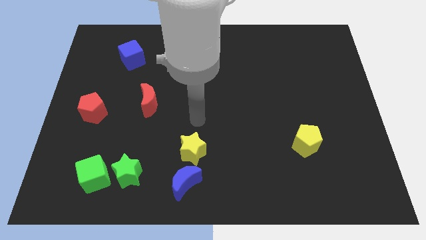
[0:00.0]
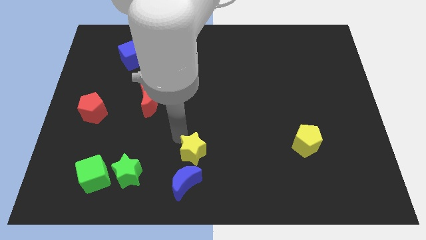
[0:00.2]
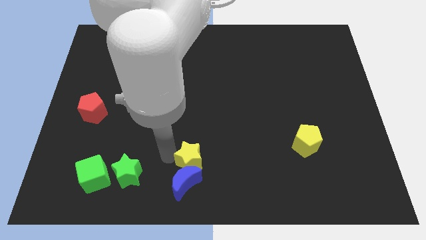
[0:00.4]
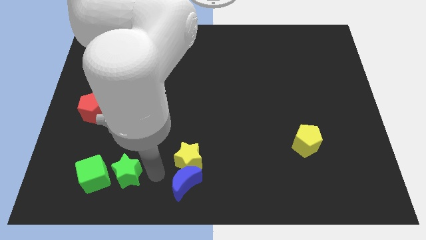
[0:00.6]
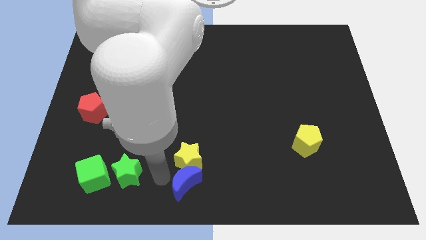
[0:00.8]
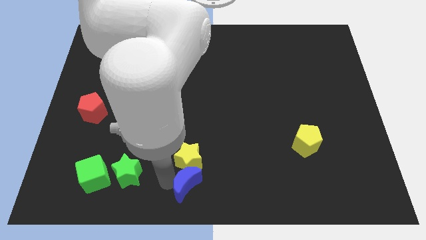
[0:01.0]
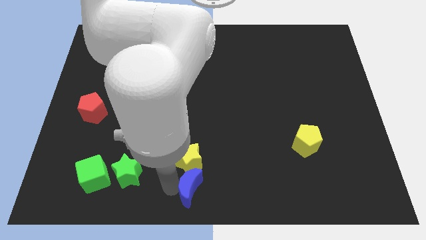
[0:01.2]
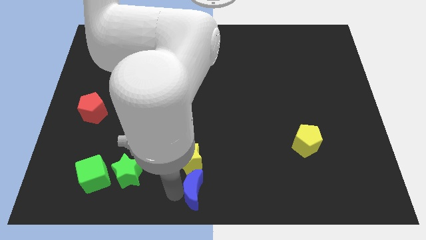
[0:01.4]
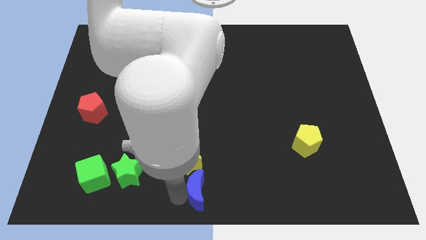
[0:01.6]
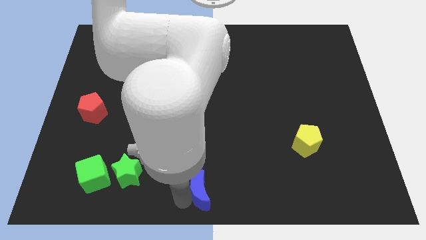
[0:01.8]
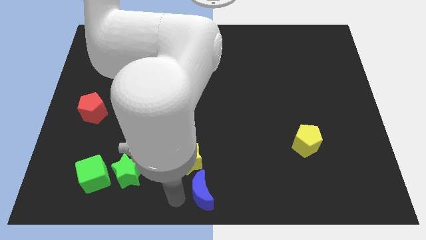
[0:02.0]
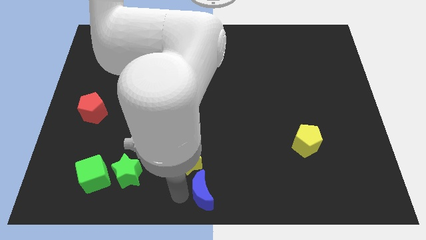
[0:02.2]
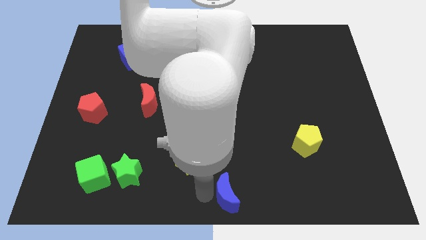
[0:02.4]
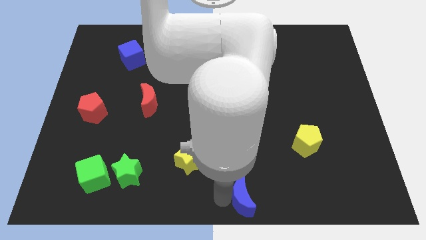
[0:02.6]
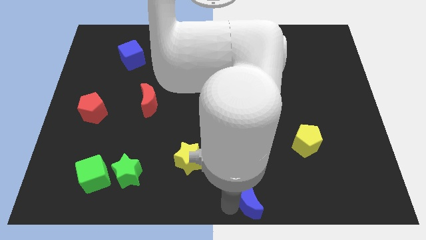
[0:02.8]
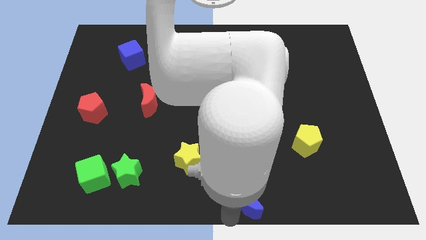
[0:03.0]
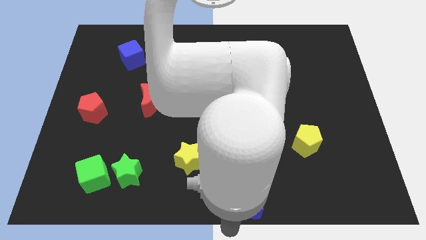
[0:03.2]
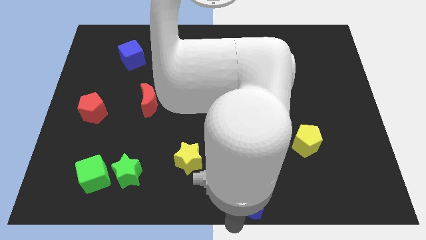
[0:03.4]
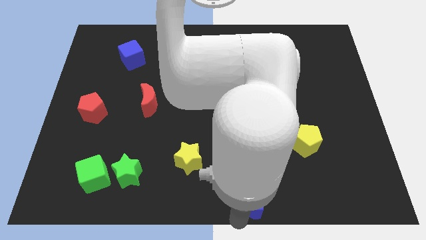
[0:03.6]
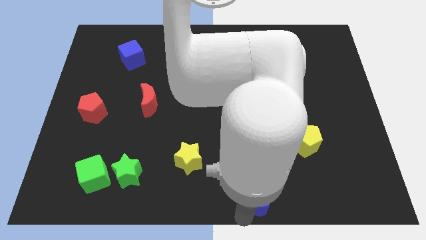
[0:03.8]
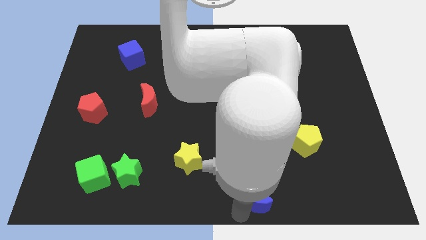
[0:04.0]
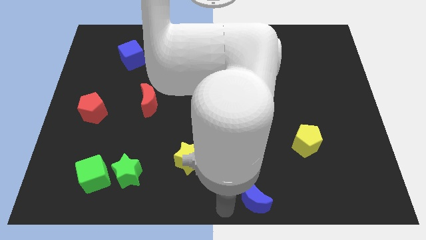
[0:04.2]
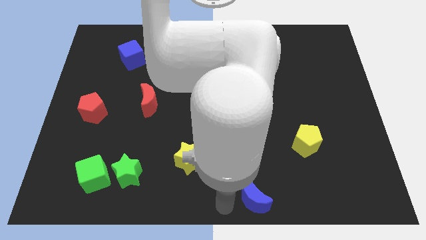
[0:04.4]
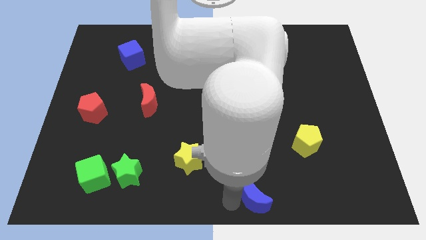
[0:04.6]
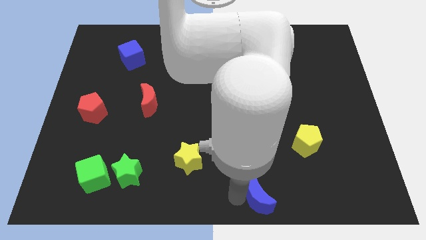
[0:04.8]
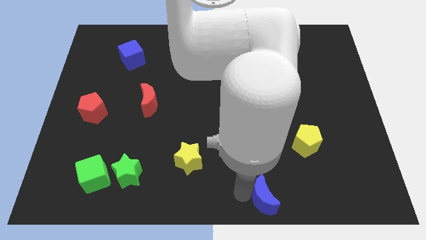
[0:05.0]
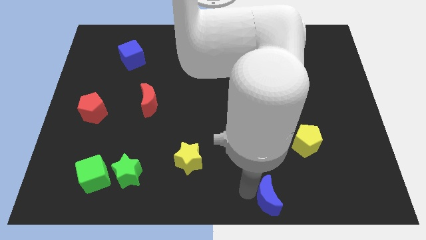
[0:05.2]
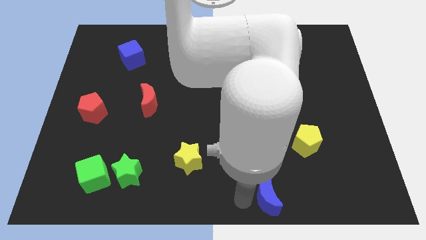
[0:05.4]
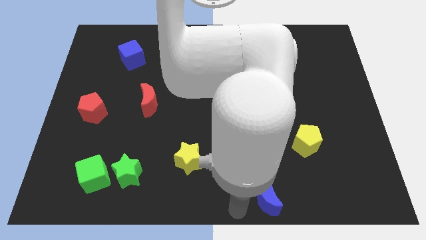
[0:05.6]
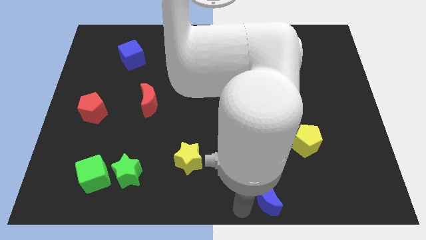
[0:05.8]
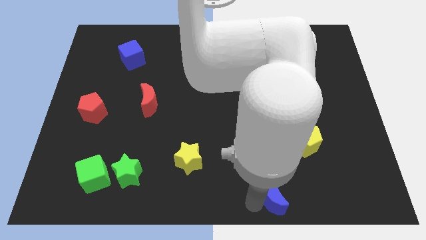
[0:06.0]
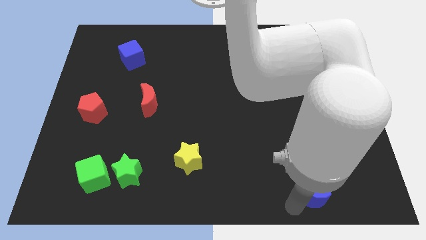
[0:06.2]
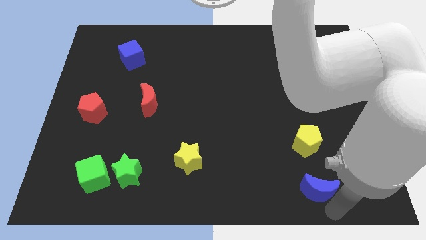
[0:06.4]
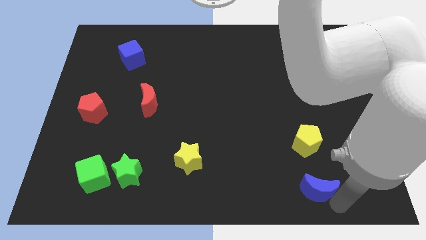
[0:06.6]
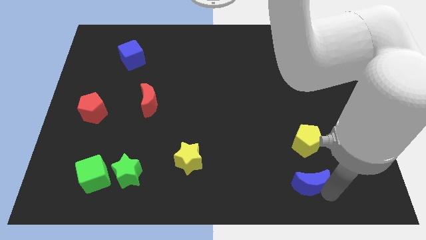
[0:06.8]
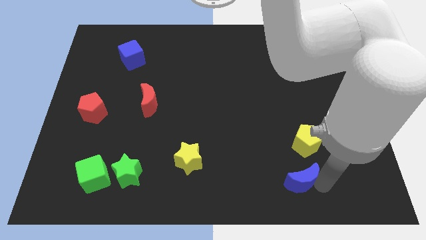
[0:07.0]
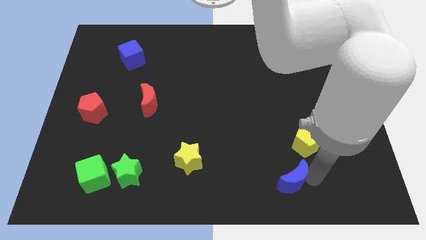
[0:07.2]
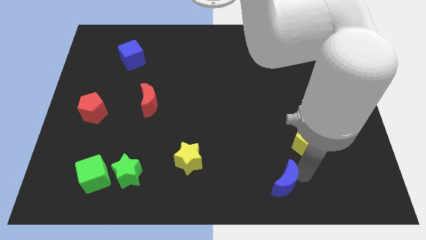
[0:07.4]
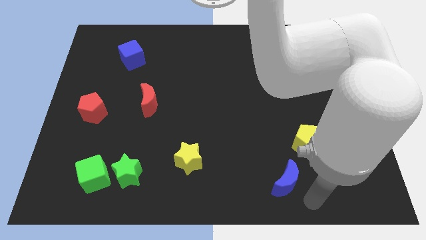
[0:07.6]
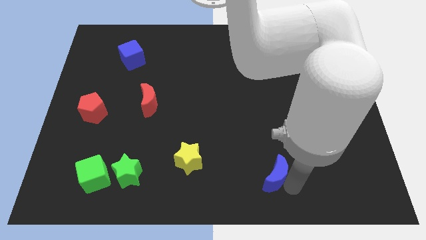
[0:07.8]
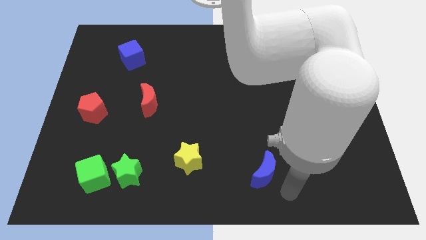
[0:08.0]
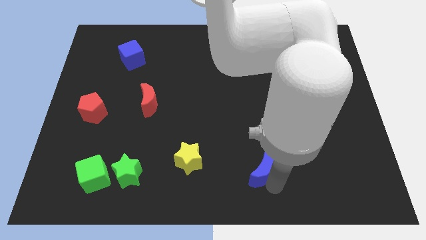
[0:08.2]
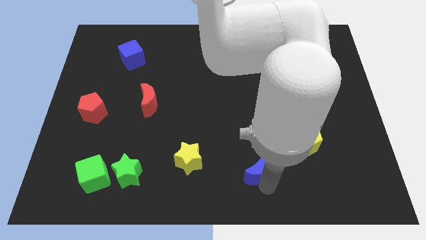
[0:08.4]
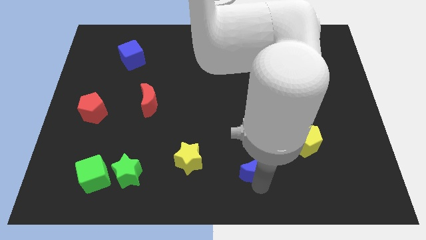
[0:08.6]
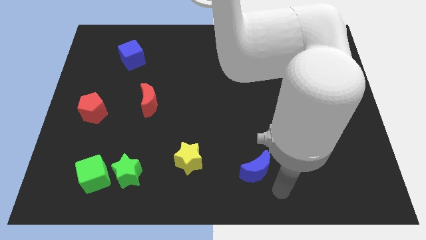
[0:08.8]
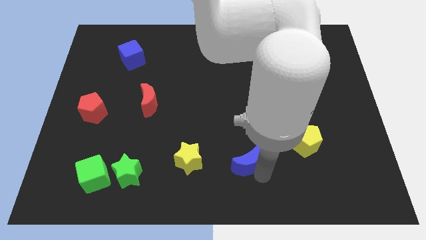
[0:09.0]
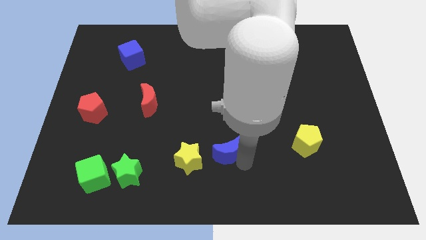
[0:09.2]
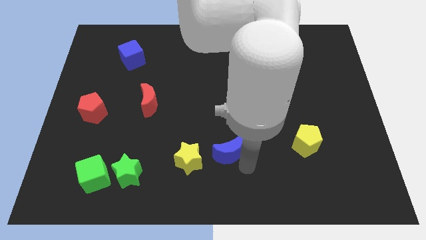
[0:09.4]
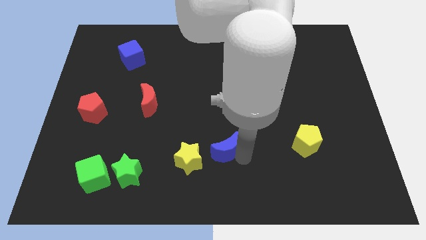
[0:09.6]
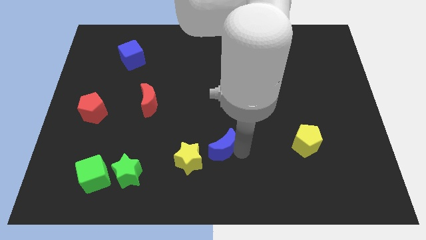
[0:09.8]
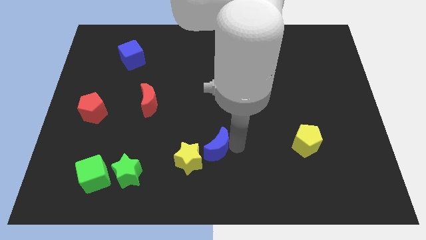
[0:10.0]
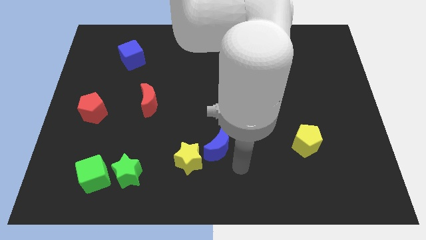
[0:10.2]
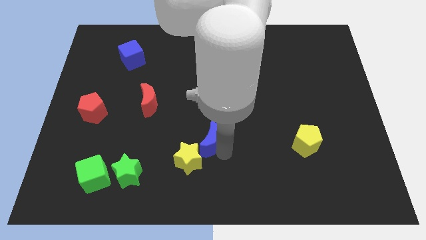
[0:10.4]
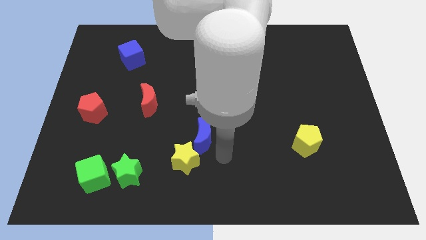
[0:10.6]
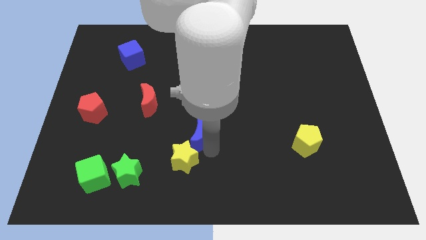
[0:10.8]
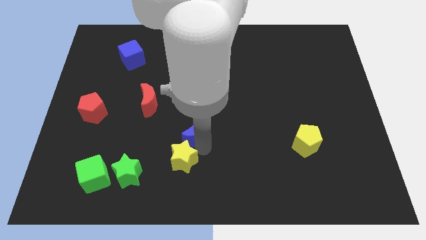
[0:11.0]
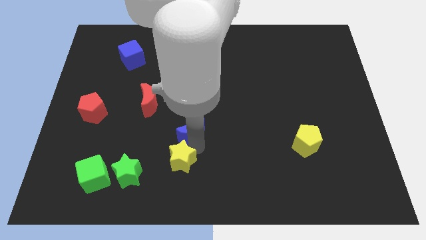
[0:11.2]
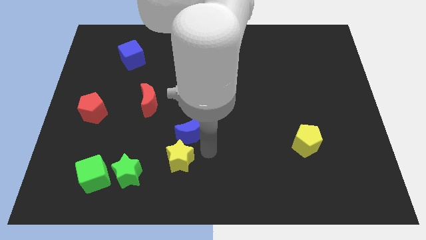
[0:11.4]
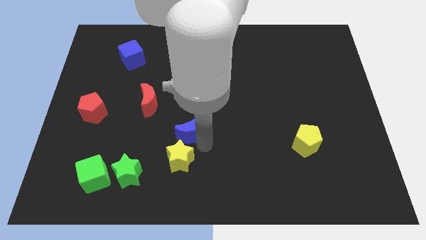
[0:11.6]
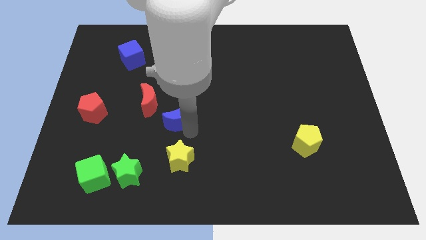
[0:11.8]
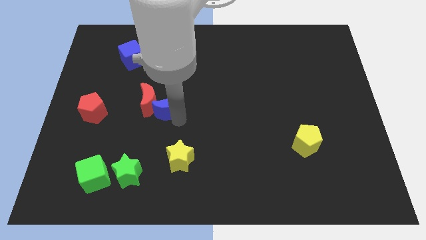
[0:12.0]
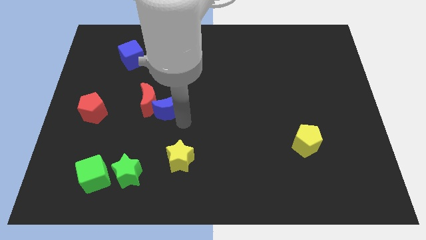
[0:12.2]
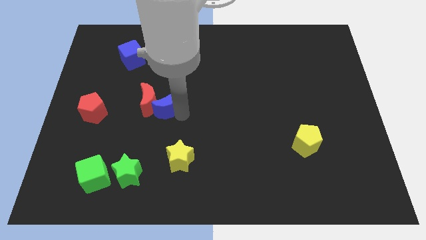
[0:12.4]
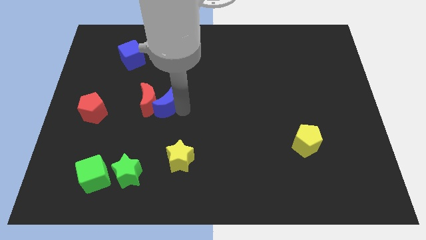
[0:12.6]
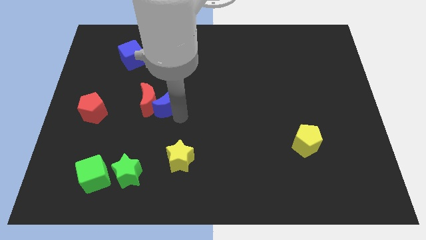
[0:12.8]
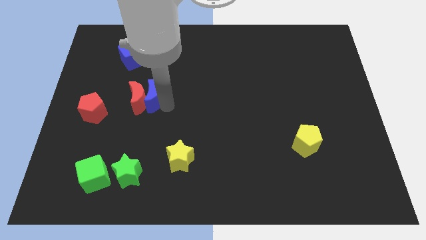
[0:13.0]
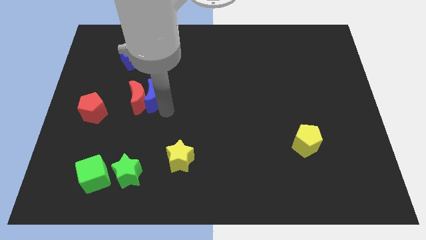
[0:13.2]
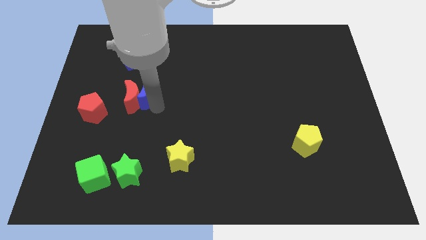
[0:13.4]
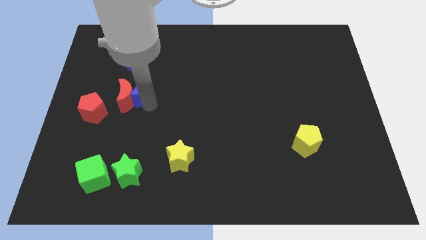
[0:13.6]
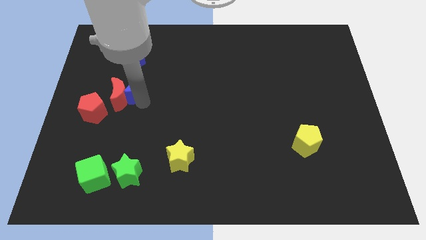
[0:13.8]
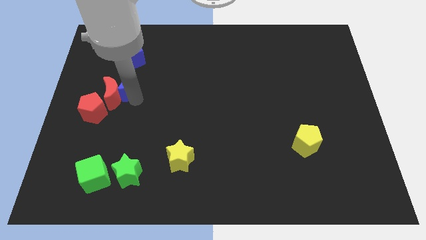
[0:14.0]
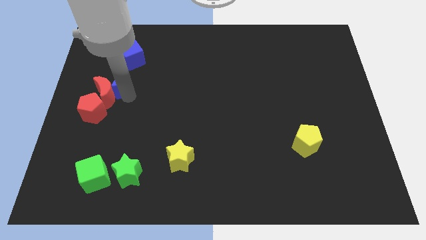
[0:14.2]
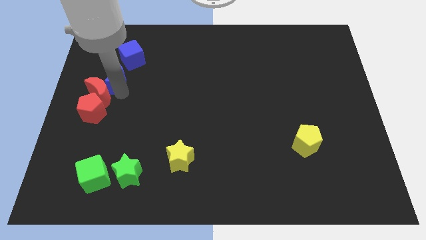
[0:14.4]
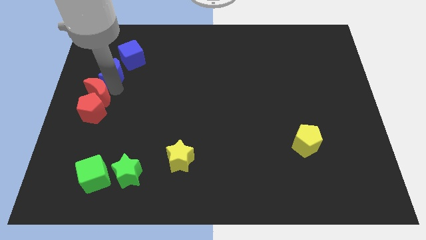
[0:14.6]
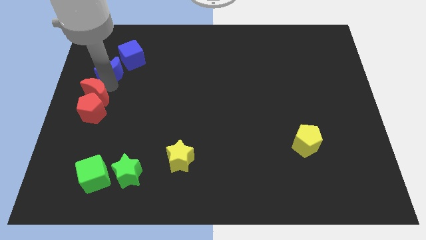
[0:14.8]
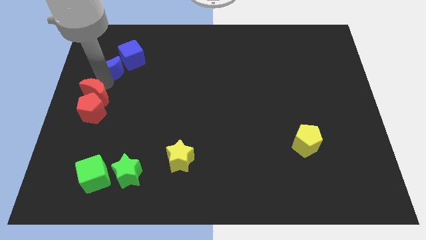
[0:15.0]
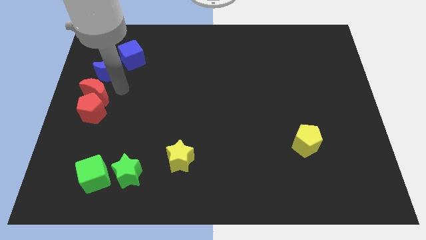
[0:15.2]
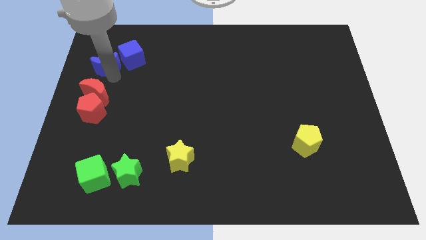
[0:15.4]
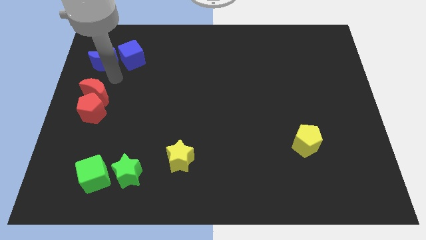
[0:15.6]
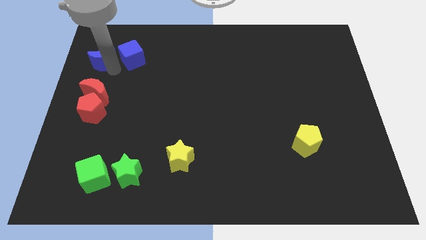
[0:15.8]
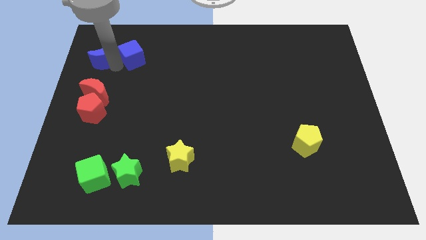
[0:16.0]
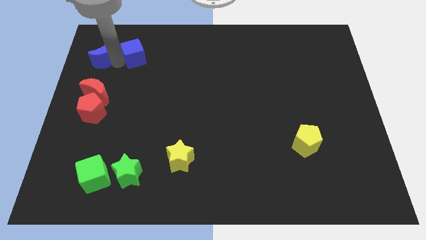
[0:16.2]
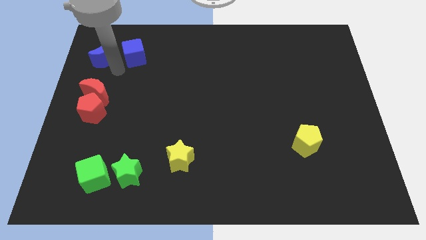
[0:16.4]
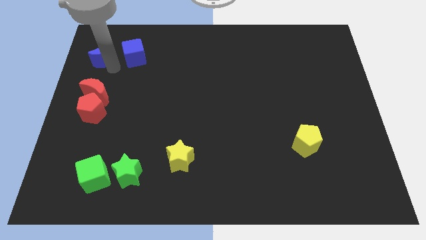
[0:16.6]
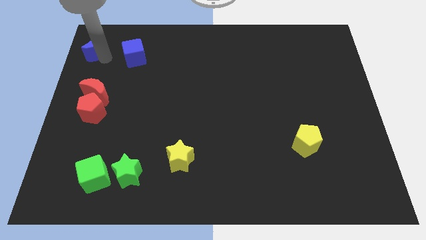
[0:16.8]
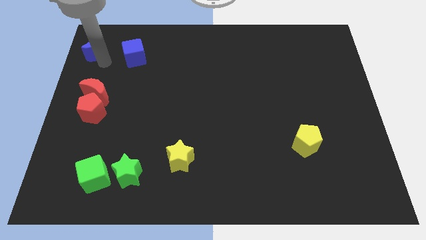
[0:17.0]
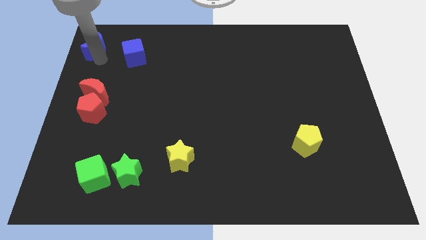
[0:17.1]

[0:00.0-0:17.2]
move the blue moon to the upper left corner
